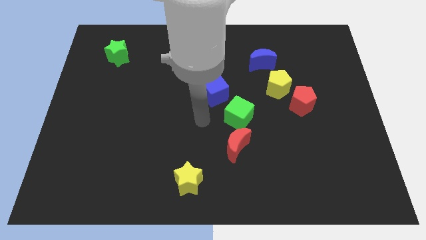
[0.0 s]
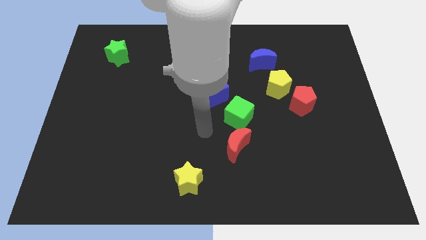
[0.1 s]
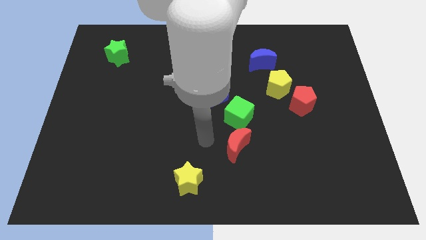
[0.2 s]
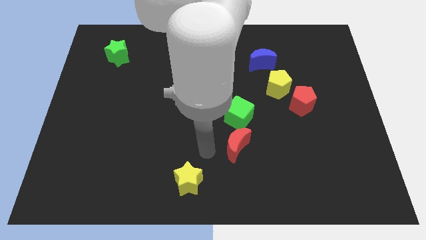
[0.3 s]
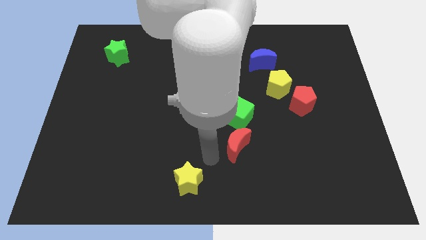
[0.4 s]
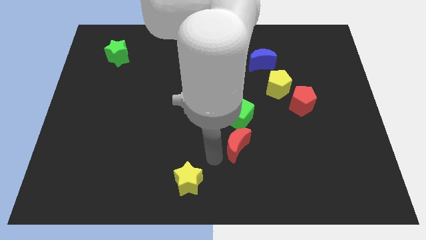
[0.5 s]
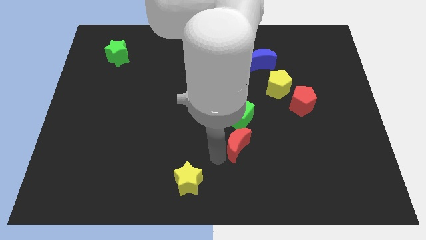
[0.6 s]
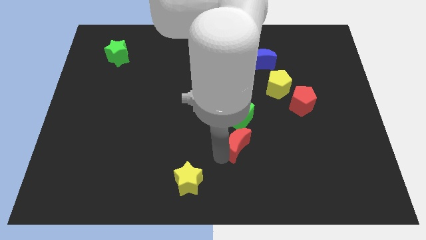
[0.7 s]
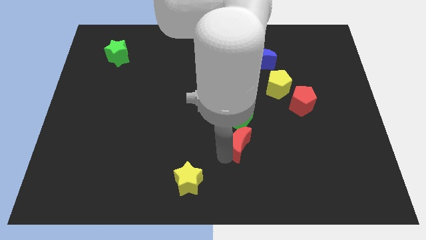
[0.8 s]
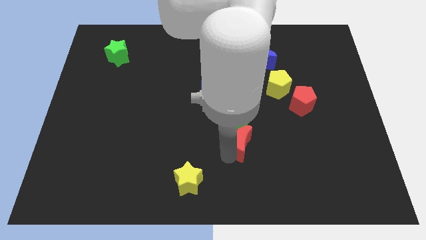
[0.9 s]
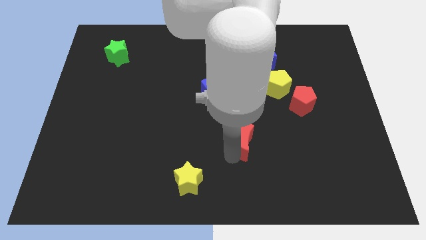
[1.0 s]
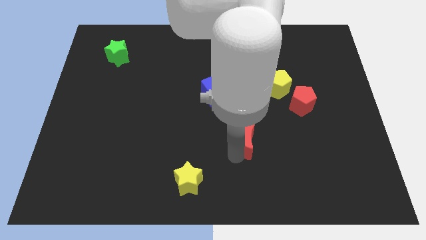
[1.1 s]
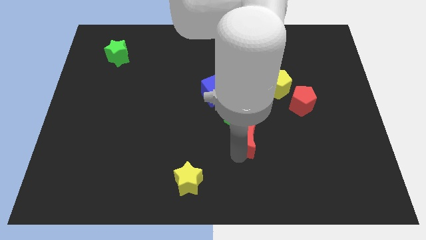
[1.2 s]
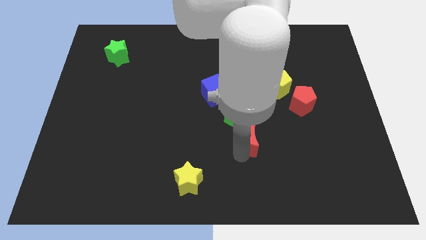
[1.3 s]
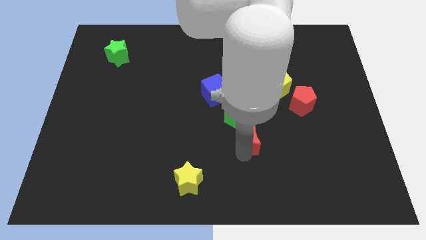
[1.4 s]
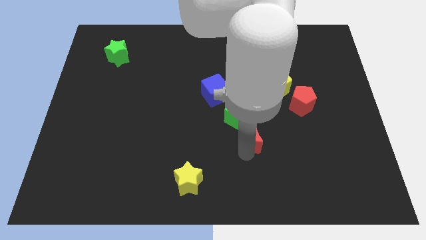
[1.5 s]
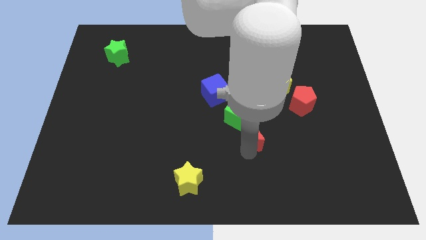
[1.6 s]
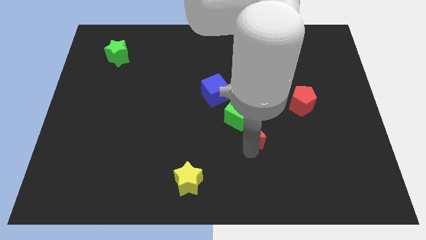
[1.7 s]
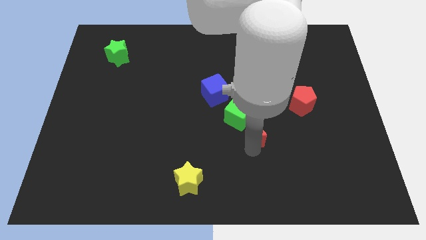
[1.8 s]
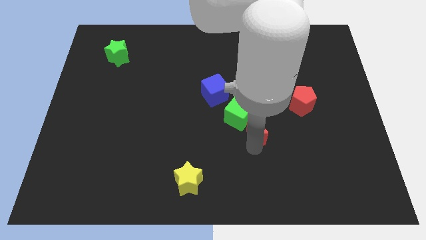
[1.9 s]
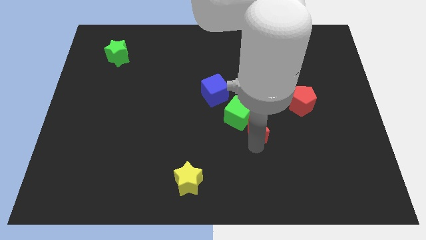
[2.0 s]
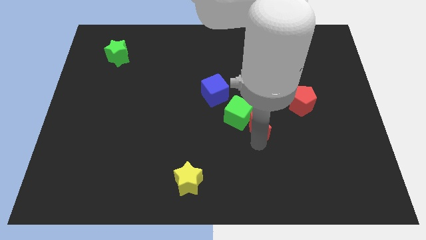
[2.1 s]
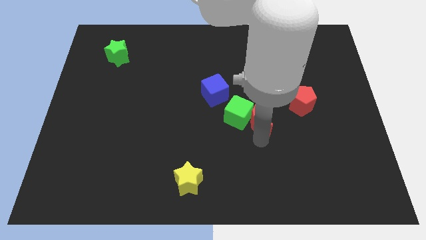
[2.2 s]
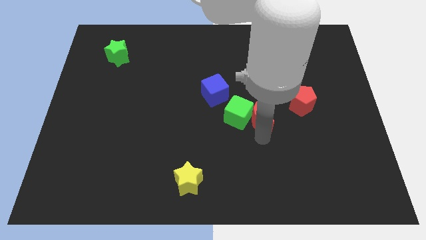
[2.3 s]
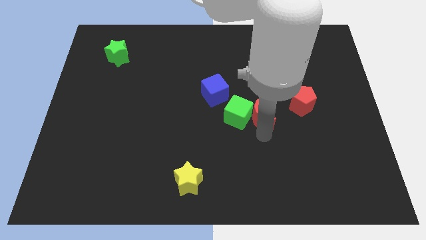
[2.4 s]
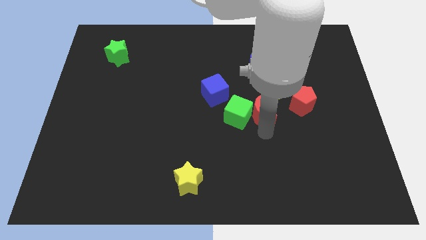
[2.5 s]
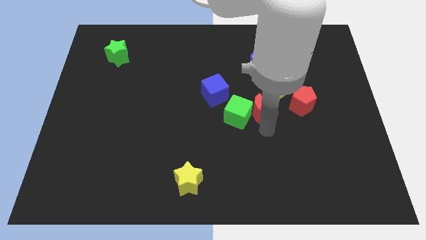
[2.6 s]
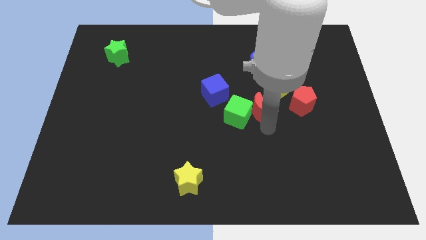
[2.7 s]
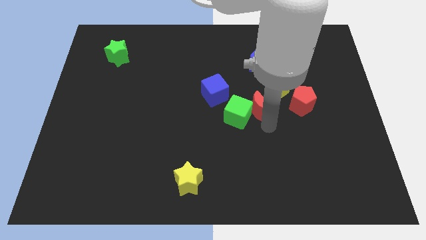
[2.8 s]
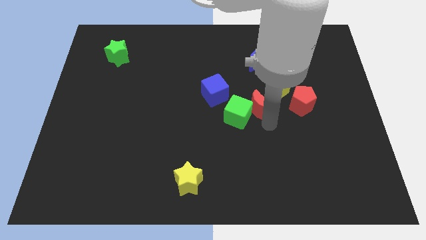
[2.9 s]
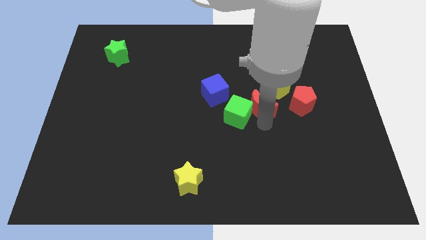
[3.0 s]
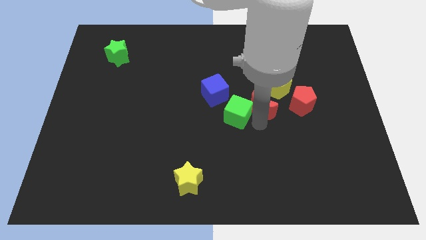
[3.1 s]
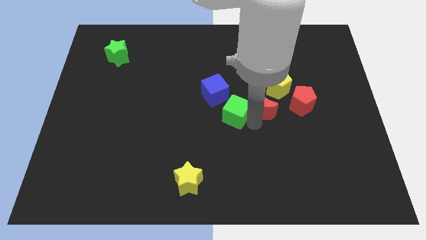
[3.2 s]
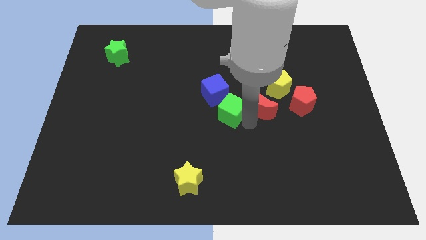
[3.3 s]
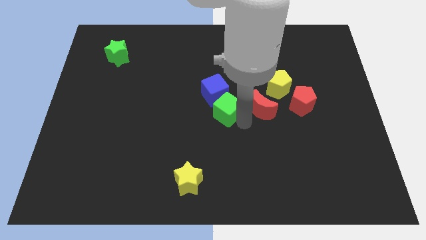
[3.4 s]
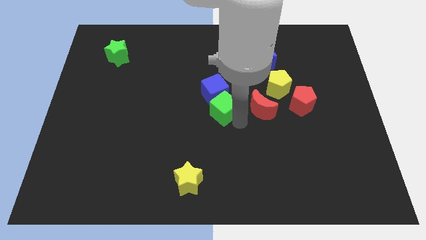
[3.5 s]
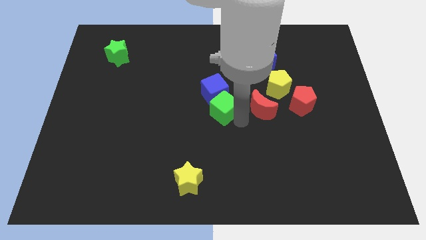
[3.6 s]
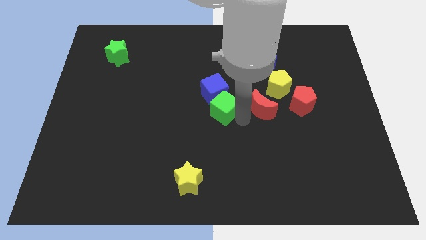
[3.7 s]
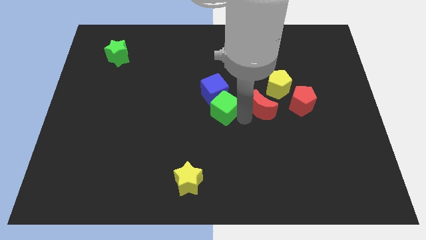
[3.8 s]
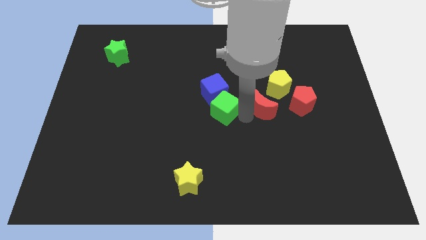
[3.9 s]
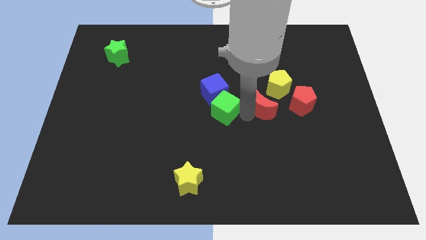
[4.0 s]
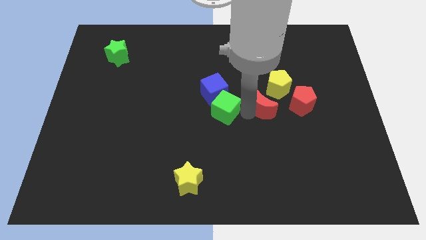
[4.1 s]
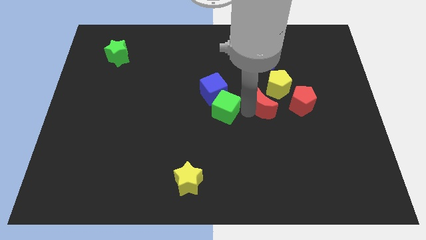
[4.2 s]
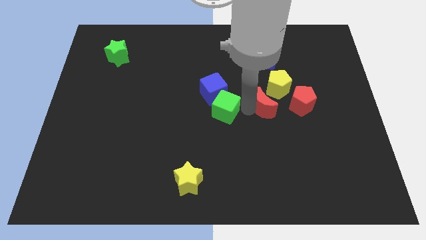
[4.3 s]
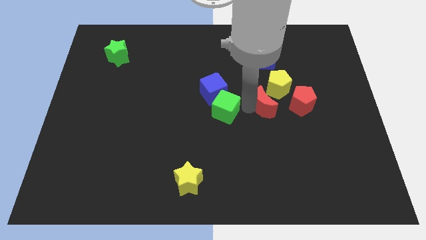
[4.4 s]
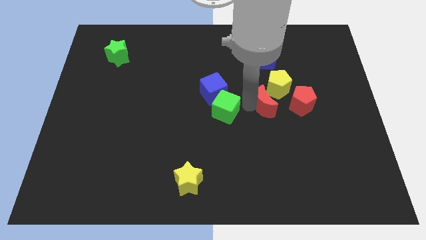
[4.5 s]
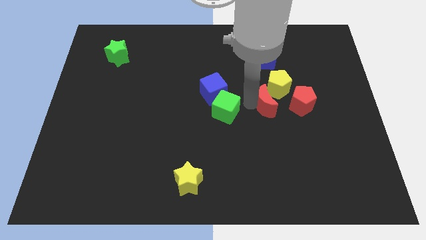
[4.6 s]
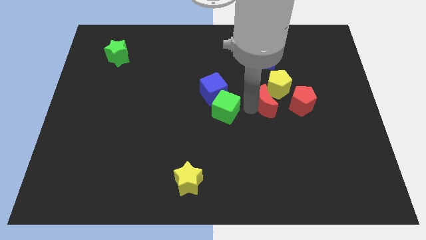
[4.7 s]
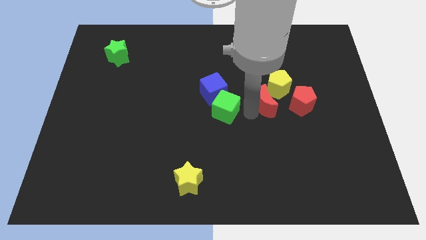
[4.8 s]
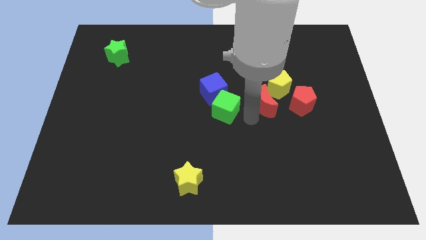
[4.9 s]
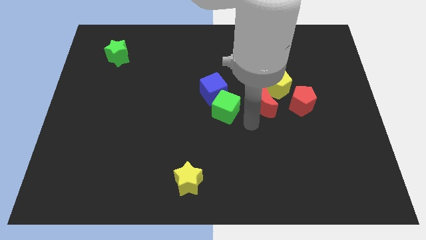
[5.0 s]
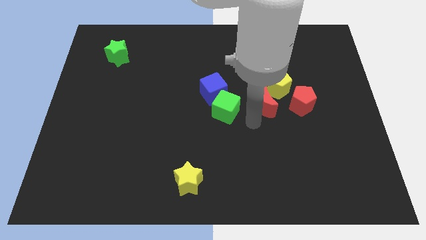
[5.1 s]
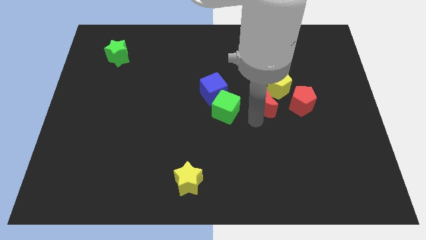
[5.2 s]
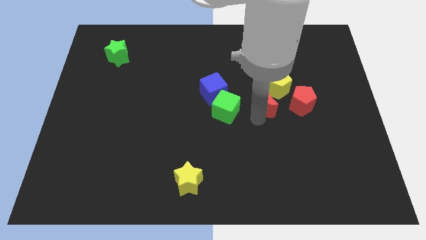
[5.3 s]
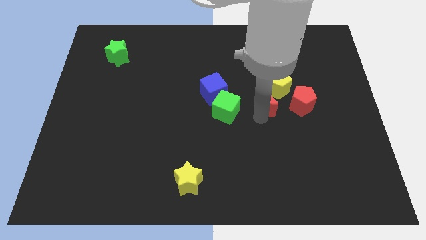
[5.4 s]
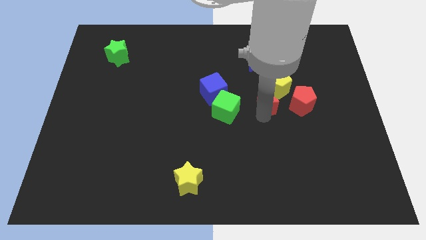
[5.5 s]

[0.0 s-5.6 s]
push the red moon next to the yellow pentagon

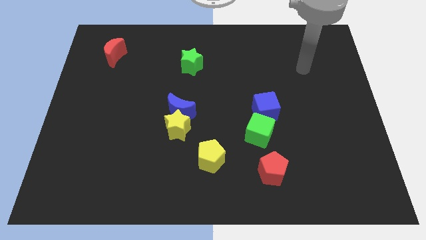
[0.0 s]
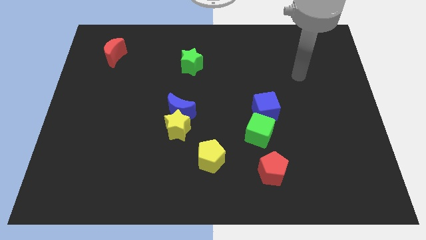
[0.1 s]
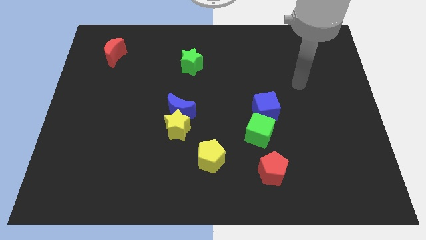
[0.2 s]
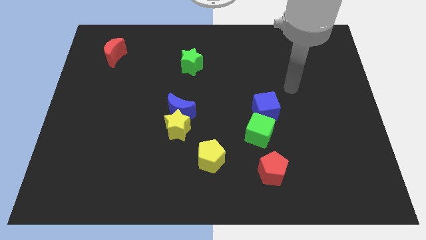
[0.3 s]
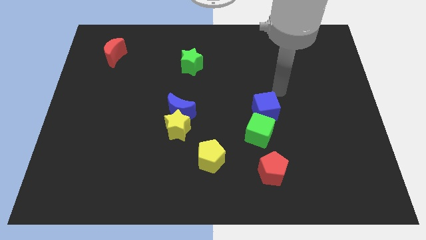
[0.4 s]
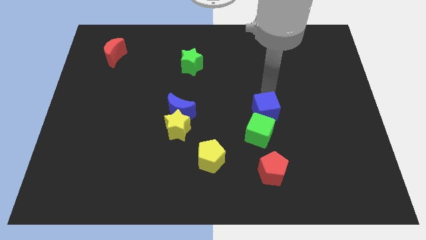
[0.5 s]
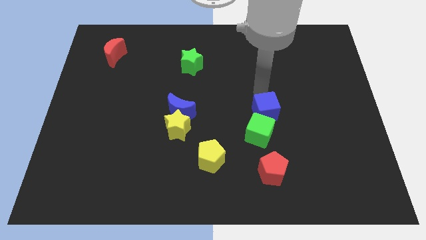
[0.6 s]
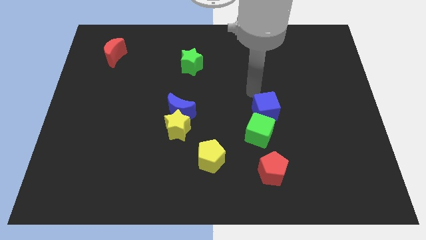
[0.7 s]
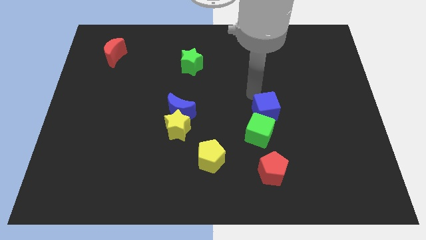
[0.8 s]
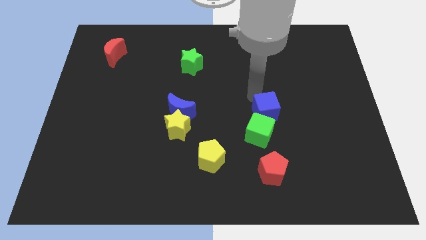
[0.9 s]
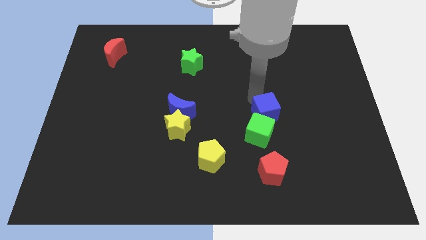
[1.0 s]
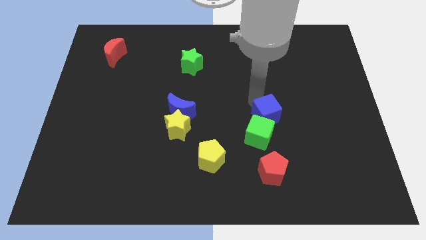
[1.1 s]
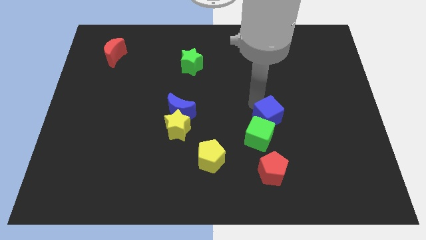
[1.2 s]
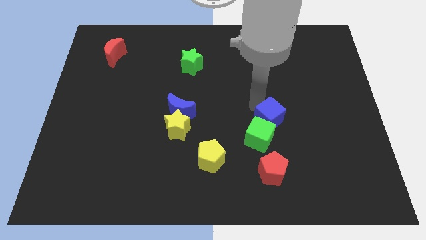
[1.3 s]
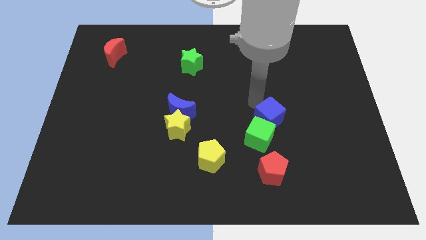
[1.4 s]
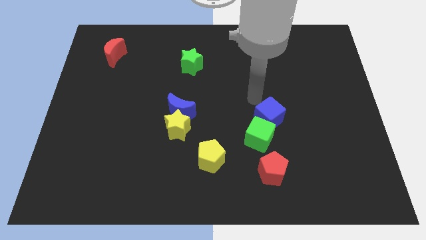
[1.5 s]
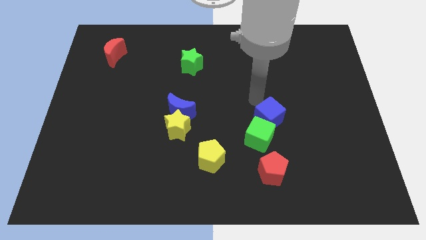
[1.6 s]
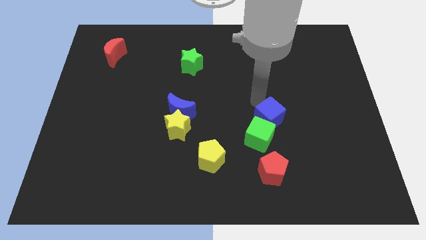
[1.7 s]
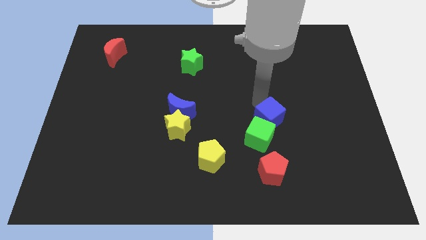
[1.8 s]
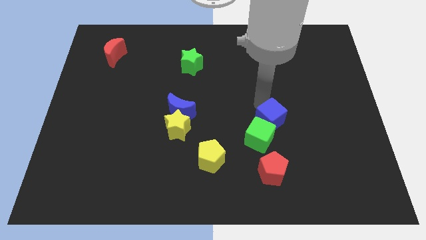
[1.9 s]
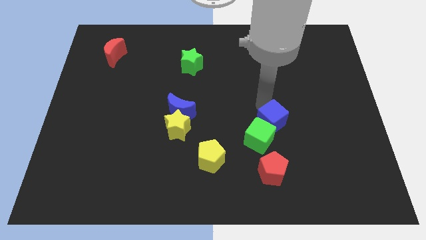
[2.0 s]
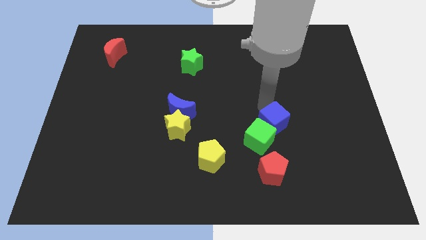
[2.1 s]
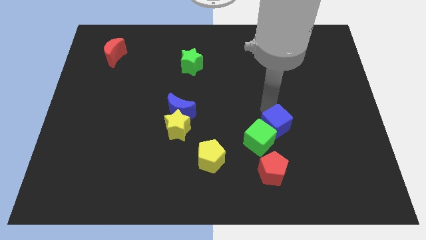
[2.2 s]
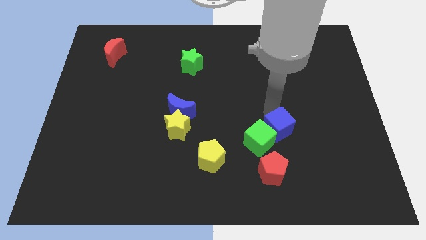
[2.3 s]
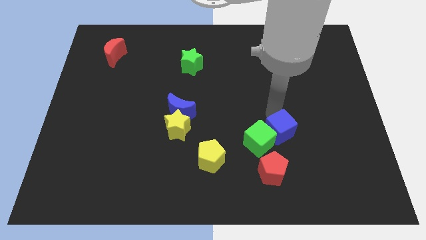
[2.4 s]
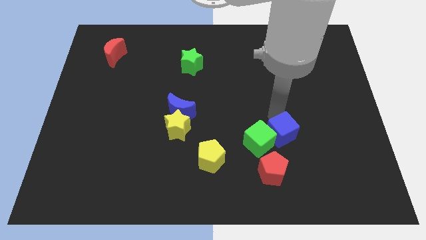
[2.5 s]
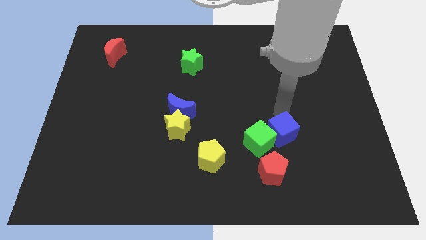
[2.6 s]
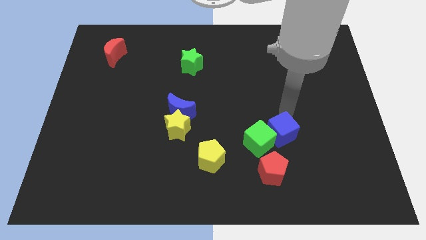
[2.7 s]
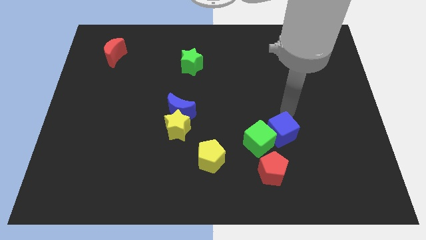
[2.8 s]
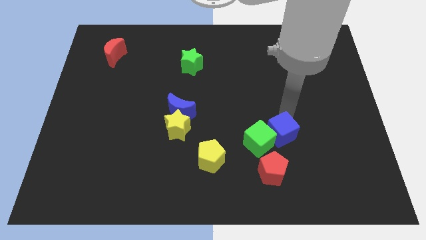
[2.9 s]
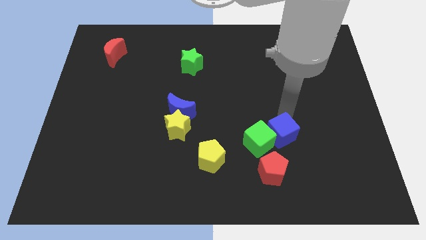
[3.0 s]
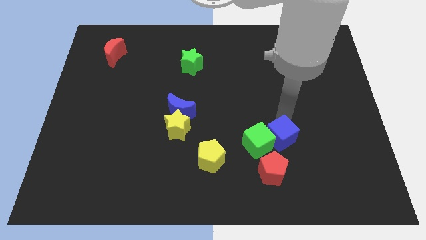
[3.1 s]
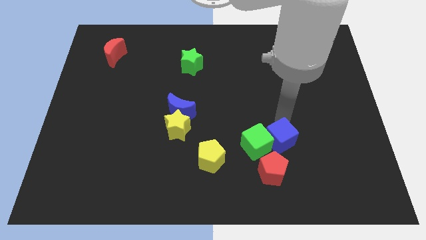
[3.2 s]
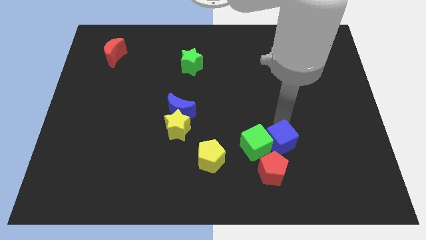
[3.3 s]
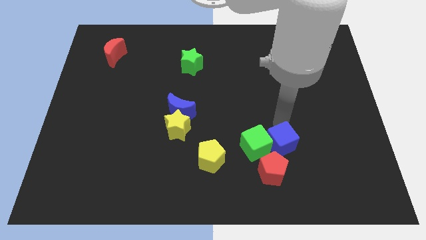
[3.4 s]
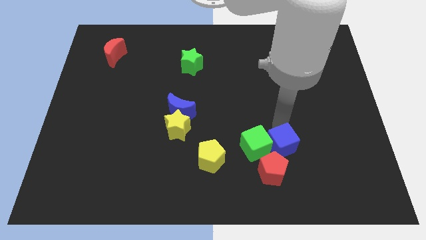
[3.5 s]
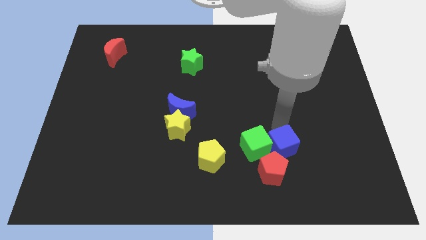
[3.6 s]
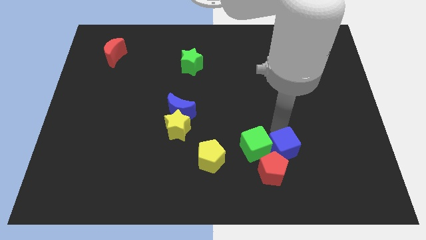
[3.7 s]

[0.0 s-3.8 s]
put the blue cube next to the red pentagon
